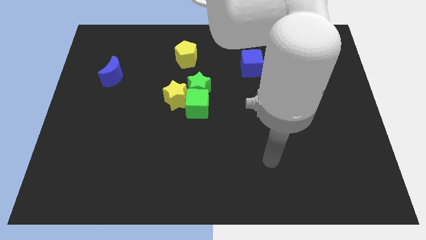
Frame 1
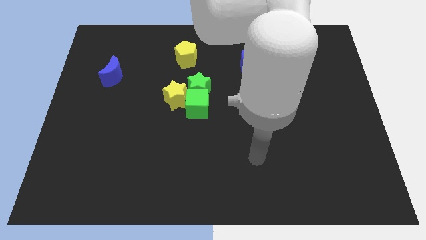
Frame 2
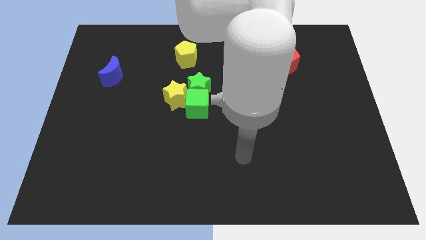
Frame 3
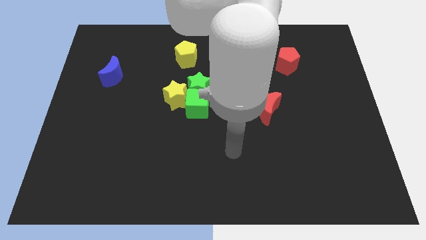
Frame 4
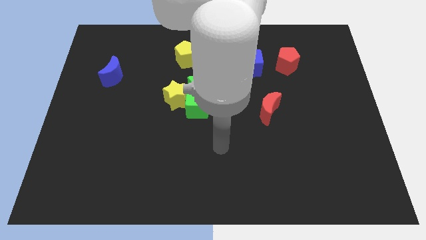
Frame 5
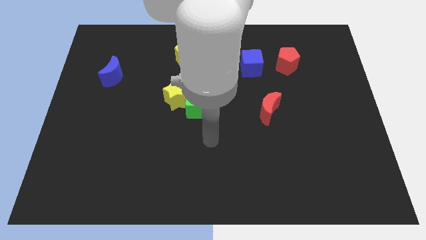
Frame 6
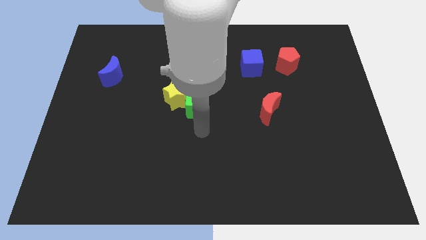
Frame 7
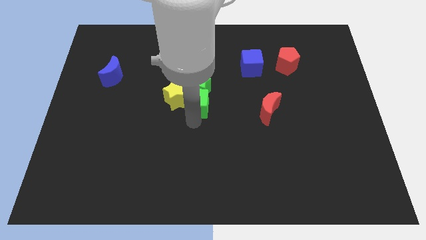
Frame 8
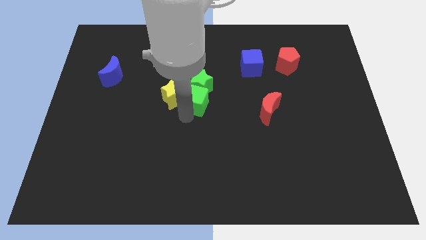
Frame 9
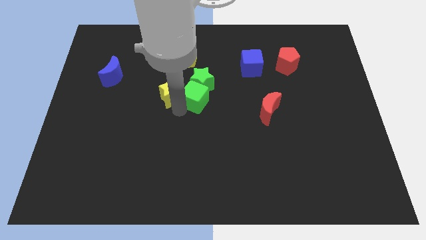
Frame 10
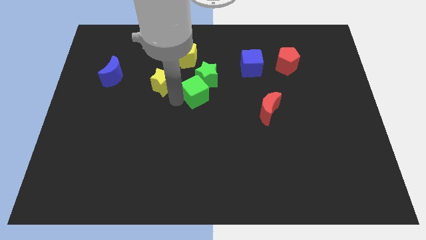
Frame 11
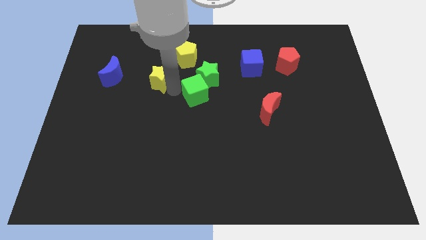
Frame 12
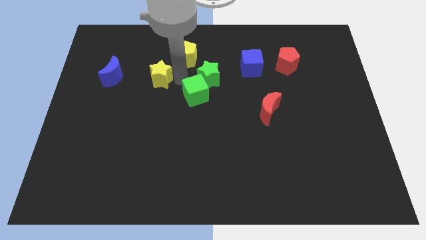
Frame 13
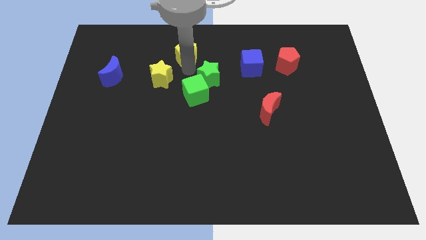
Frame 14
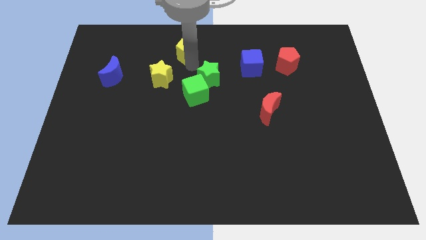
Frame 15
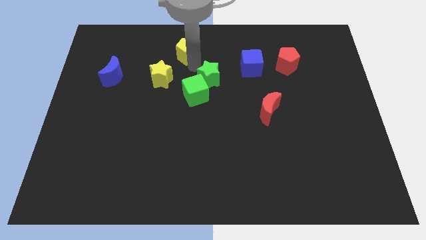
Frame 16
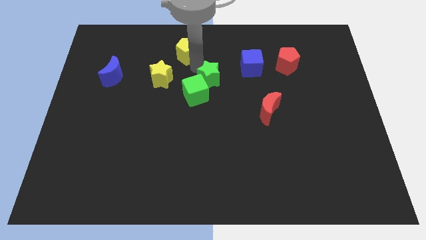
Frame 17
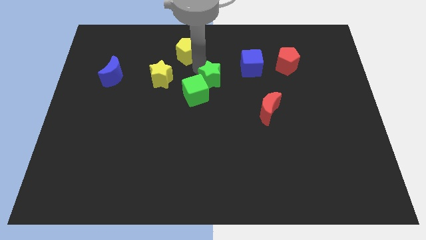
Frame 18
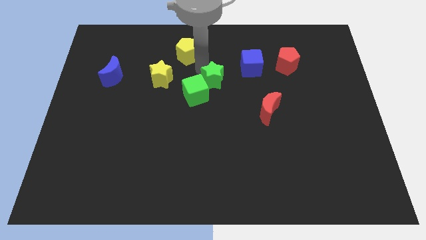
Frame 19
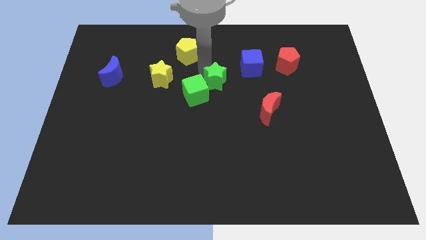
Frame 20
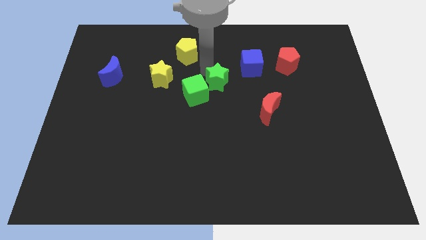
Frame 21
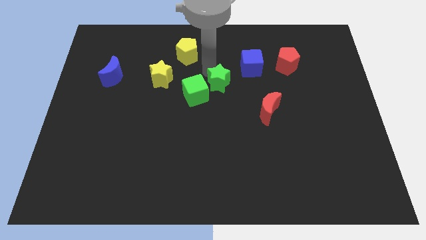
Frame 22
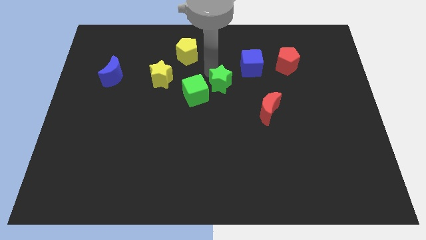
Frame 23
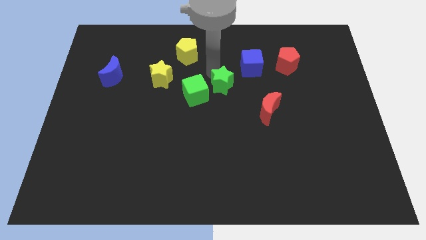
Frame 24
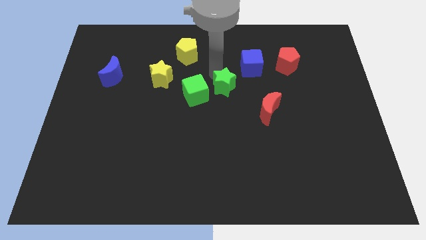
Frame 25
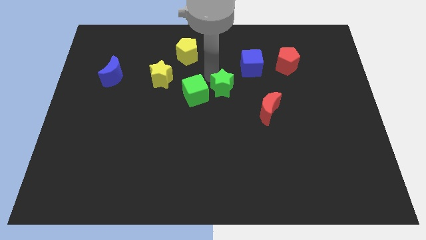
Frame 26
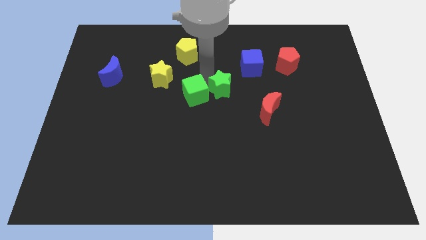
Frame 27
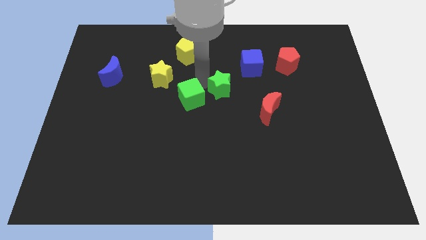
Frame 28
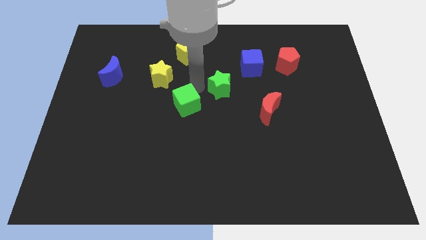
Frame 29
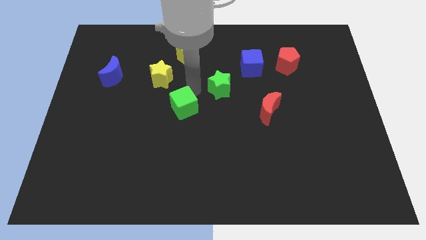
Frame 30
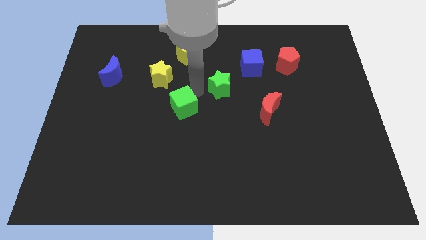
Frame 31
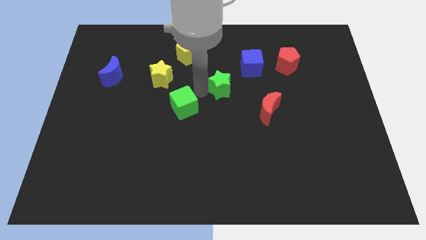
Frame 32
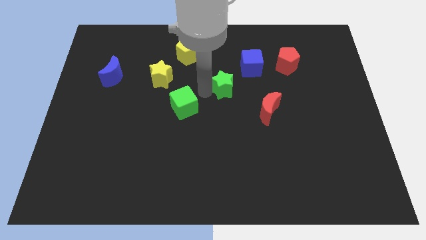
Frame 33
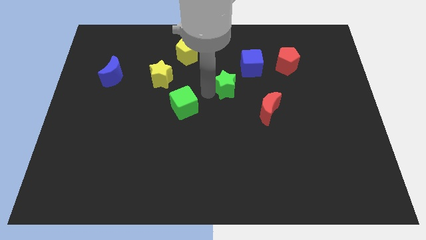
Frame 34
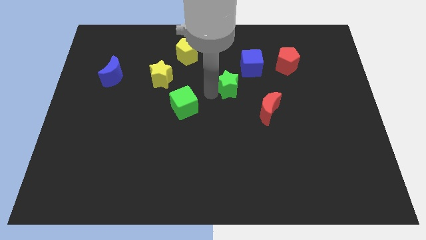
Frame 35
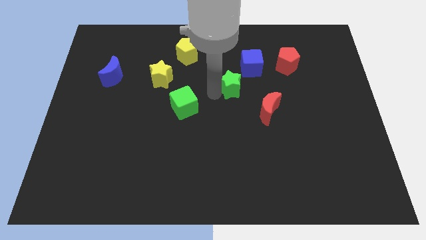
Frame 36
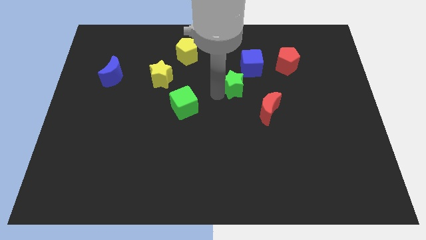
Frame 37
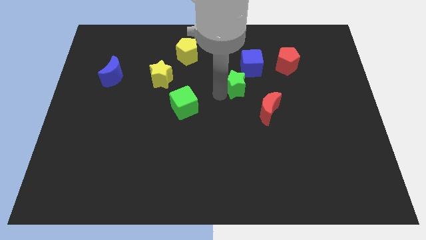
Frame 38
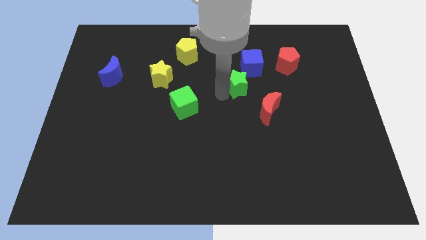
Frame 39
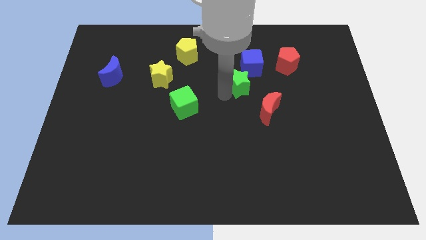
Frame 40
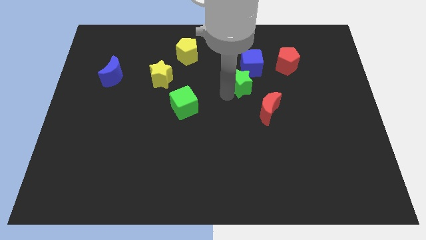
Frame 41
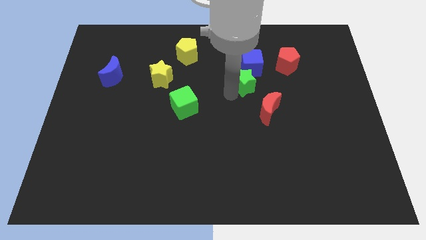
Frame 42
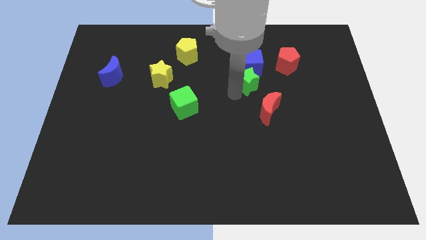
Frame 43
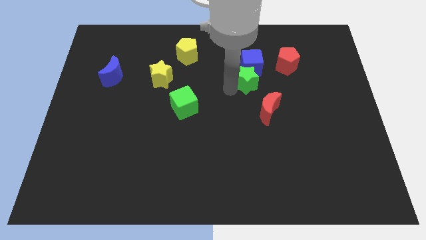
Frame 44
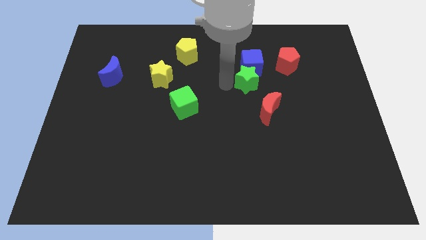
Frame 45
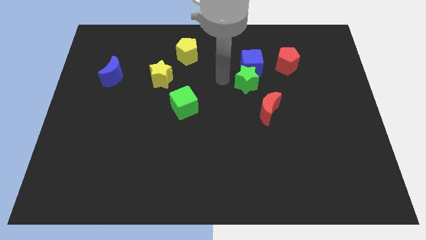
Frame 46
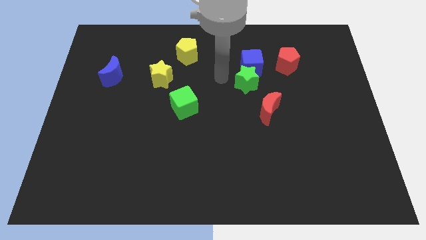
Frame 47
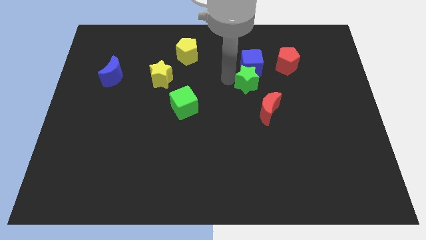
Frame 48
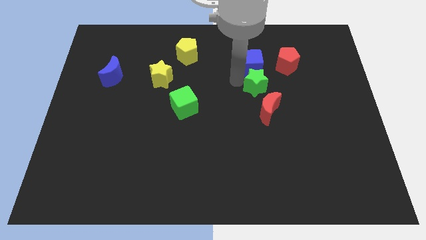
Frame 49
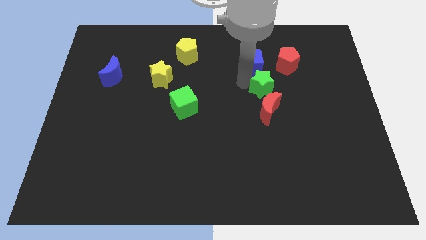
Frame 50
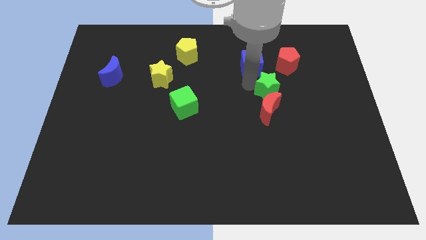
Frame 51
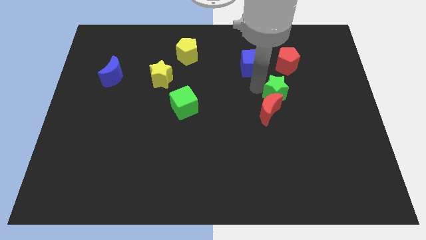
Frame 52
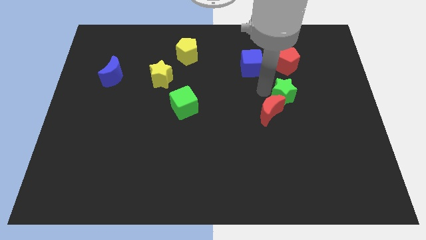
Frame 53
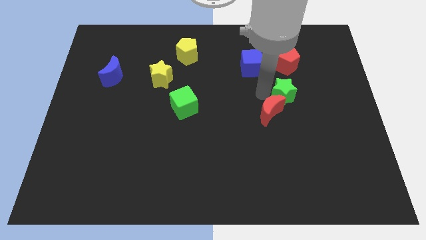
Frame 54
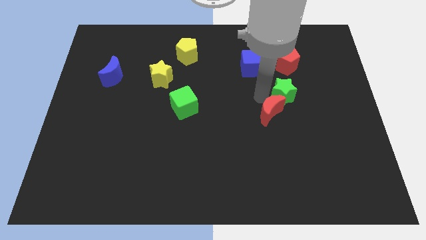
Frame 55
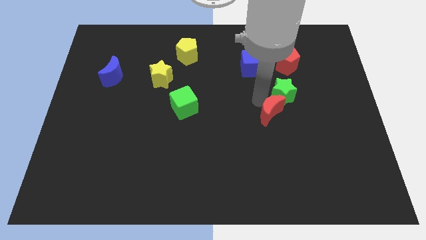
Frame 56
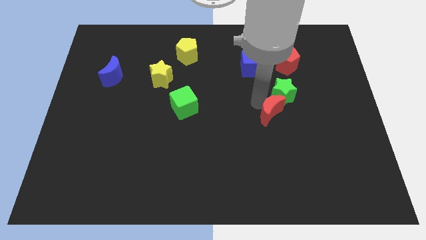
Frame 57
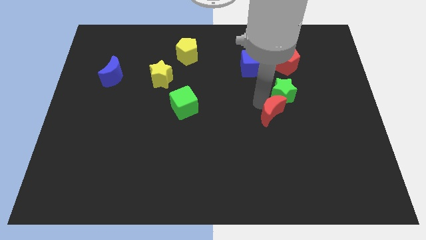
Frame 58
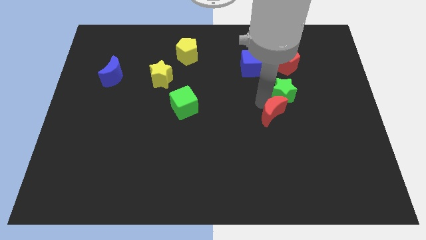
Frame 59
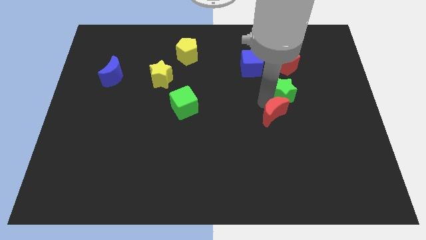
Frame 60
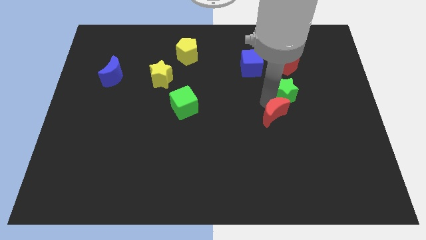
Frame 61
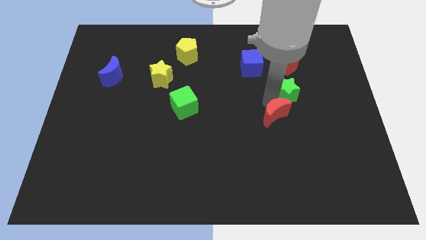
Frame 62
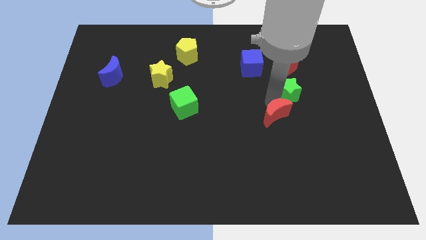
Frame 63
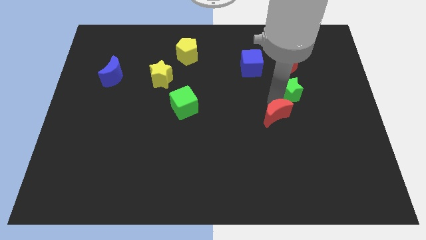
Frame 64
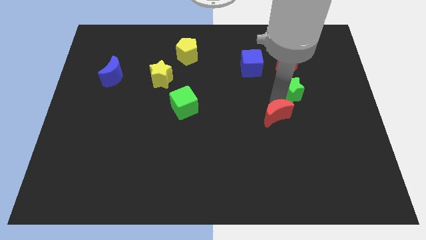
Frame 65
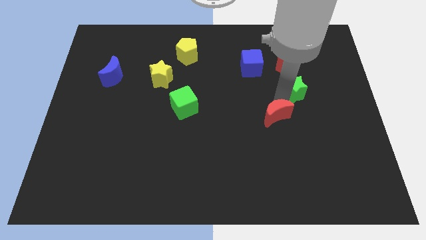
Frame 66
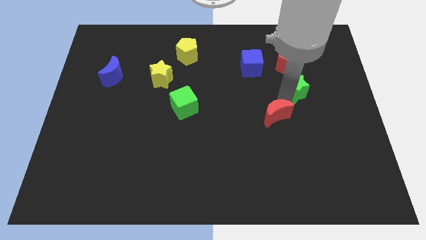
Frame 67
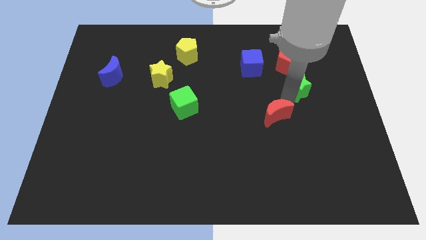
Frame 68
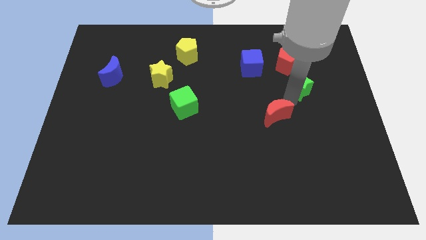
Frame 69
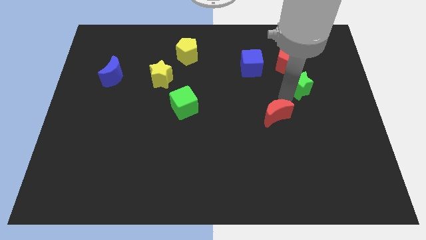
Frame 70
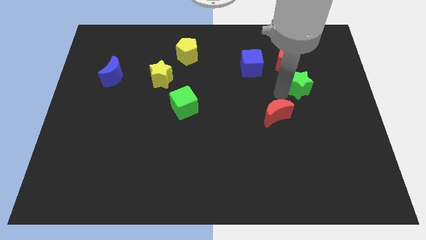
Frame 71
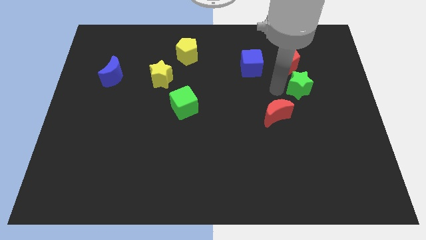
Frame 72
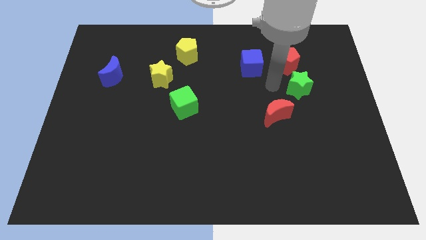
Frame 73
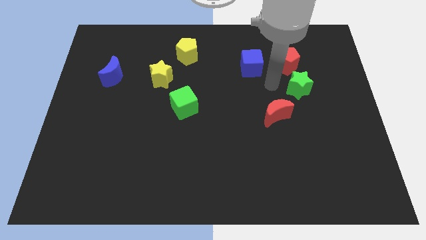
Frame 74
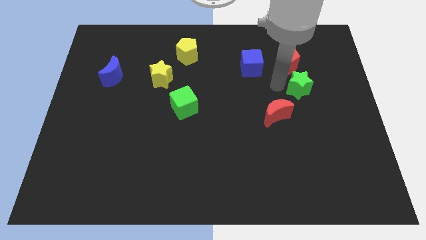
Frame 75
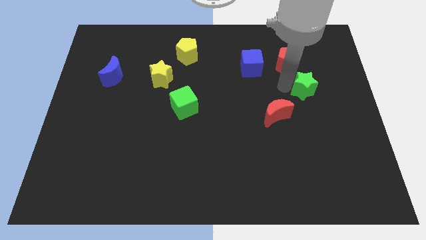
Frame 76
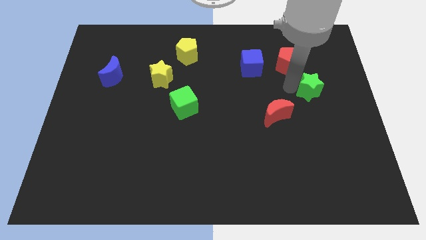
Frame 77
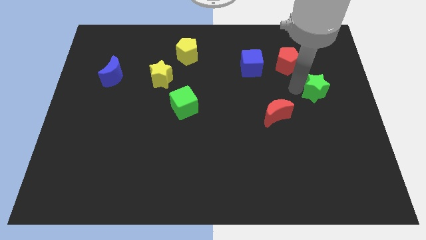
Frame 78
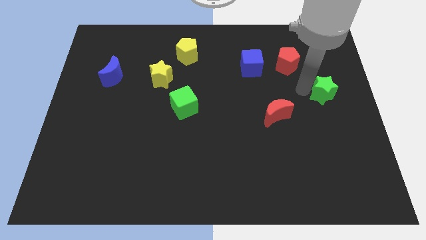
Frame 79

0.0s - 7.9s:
move the green star to the center right
